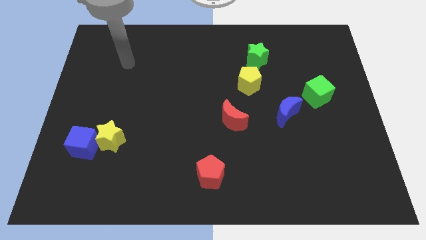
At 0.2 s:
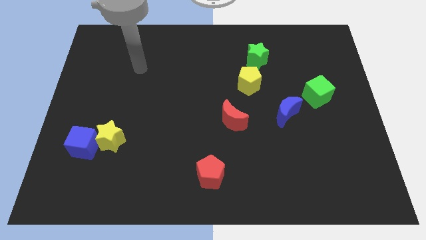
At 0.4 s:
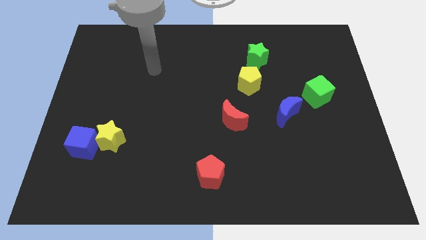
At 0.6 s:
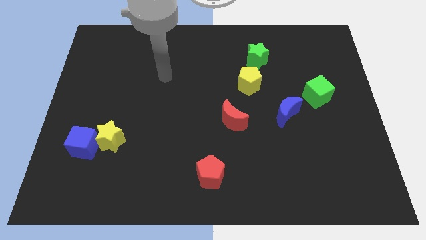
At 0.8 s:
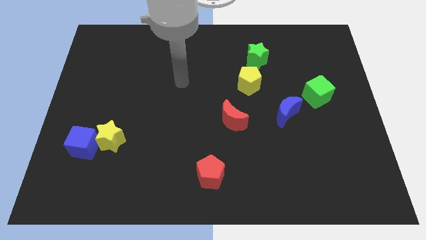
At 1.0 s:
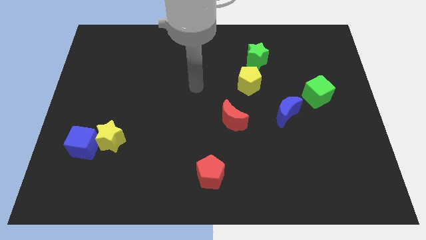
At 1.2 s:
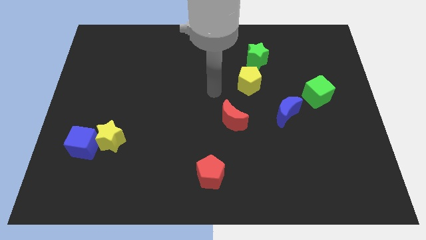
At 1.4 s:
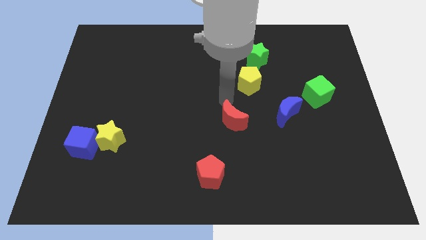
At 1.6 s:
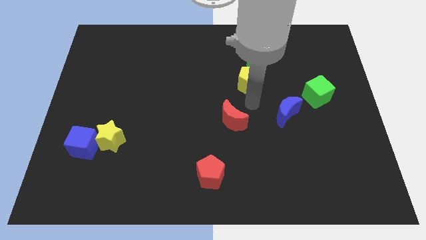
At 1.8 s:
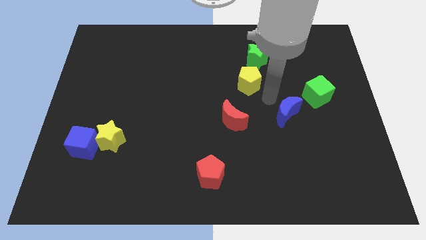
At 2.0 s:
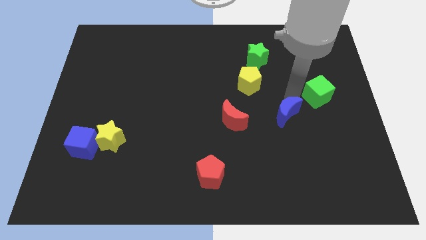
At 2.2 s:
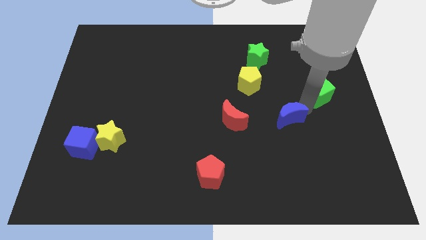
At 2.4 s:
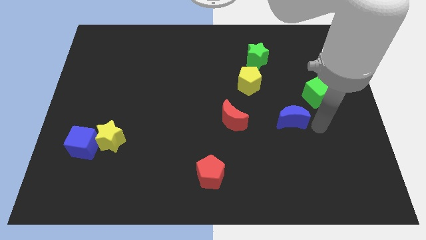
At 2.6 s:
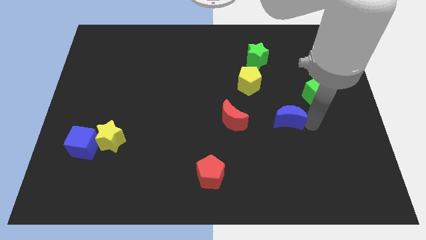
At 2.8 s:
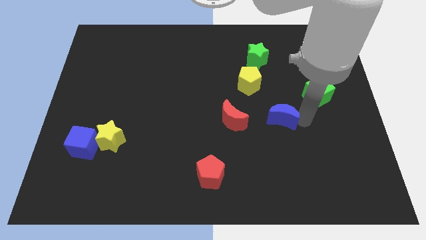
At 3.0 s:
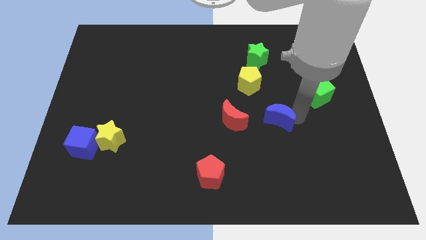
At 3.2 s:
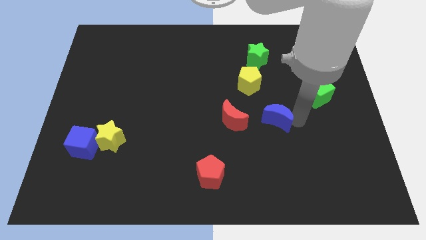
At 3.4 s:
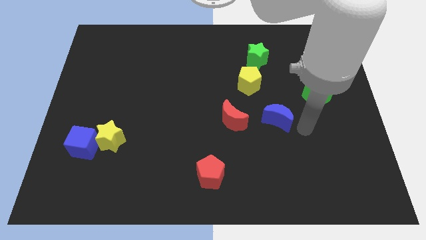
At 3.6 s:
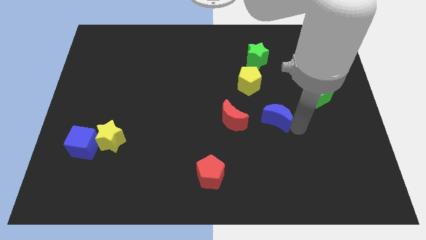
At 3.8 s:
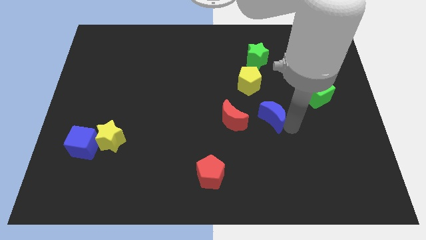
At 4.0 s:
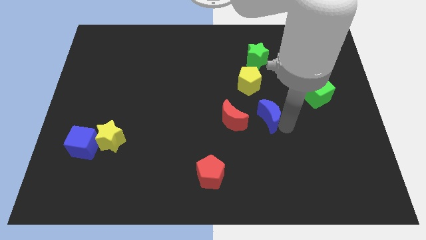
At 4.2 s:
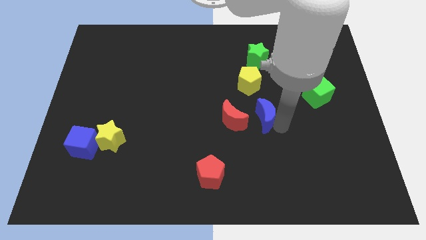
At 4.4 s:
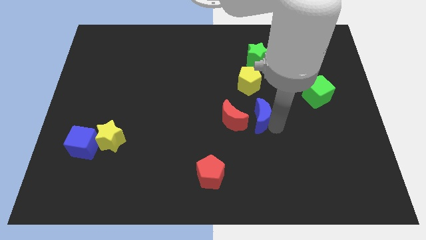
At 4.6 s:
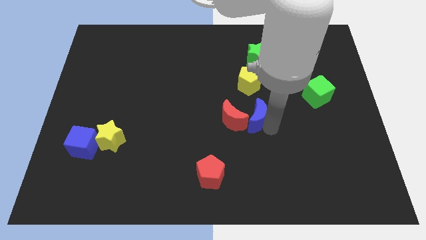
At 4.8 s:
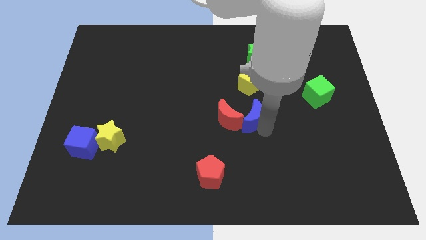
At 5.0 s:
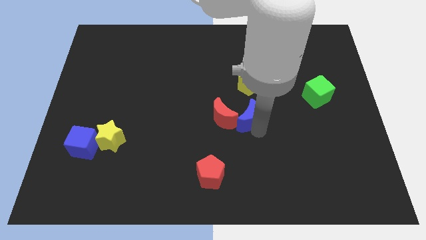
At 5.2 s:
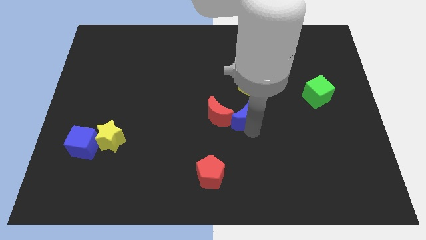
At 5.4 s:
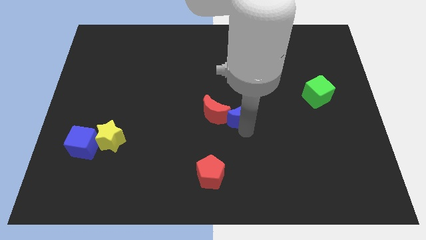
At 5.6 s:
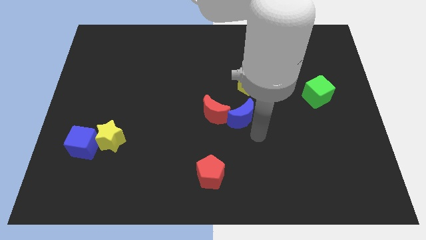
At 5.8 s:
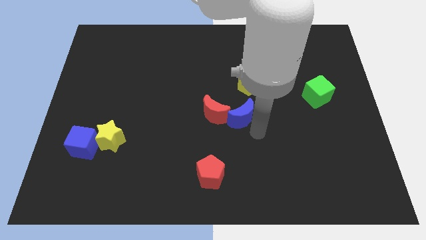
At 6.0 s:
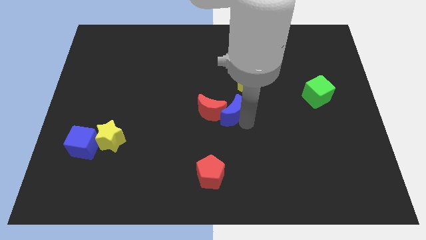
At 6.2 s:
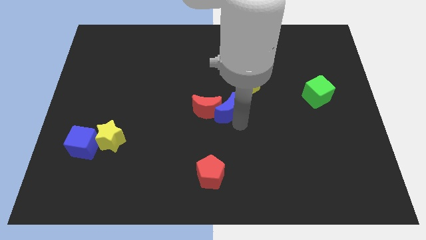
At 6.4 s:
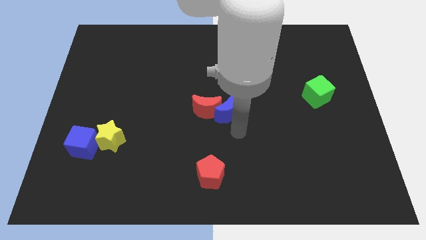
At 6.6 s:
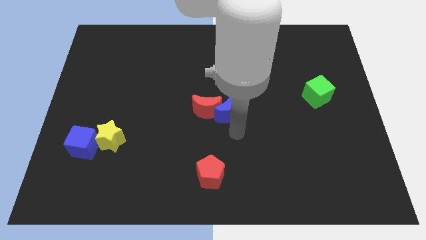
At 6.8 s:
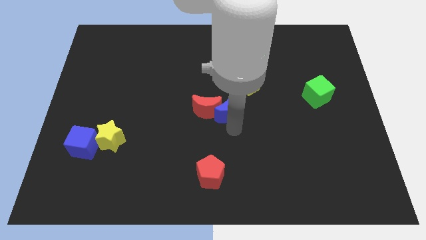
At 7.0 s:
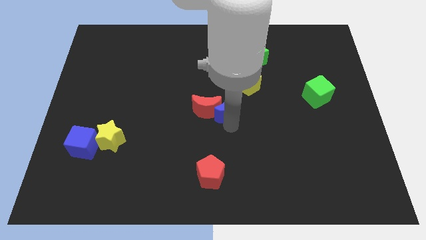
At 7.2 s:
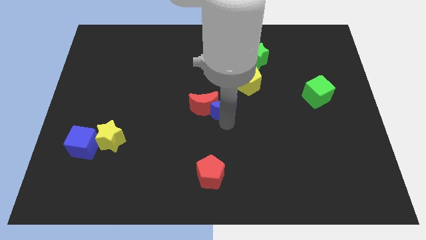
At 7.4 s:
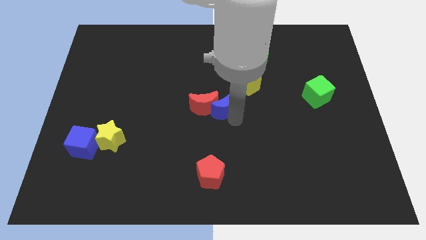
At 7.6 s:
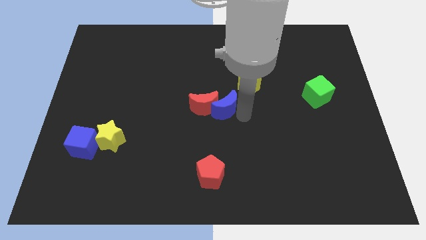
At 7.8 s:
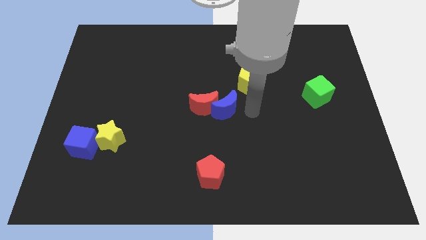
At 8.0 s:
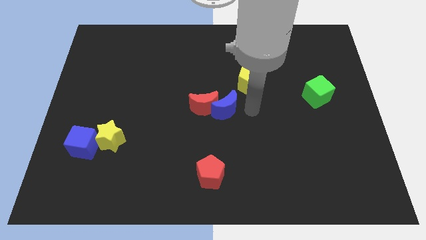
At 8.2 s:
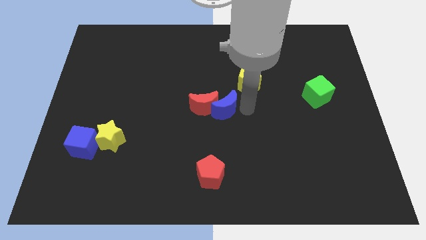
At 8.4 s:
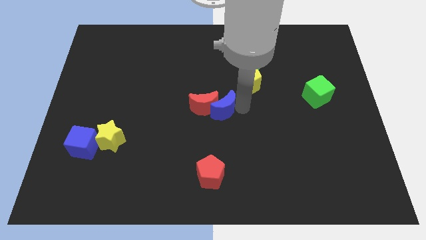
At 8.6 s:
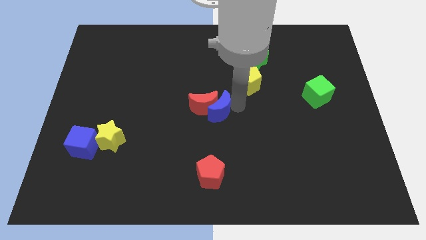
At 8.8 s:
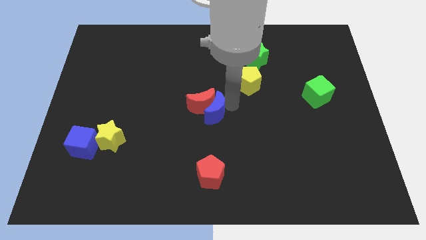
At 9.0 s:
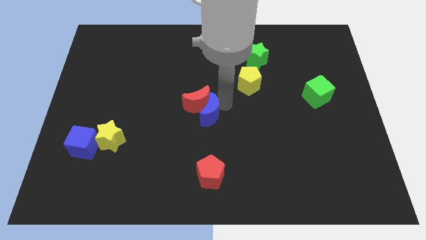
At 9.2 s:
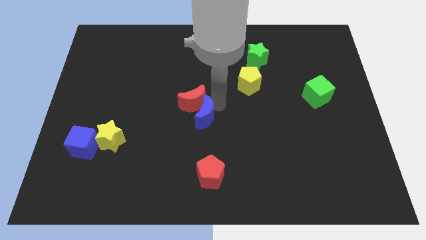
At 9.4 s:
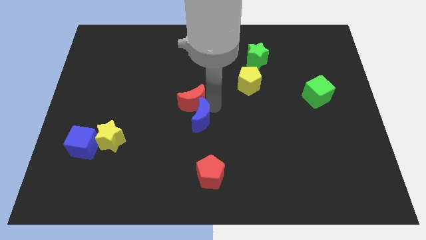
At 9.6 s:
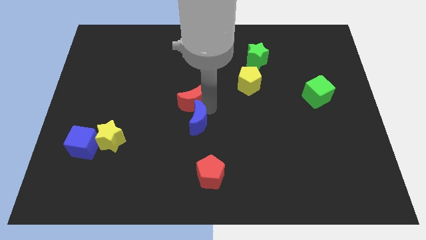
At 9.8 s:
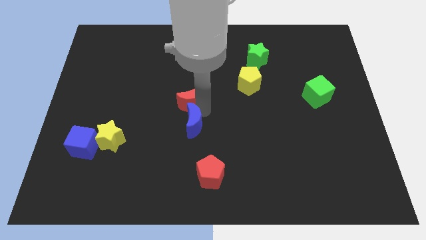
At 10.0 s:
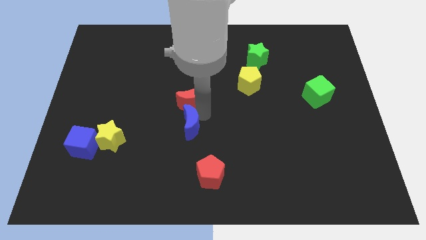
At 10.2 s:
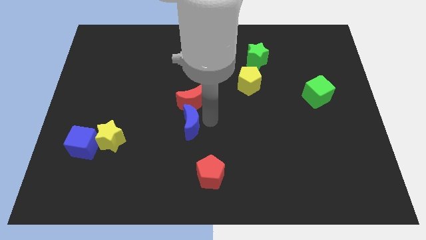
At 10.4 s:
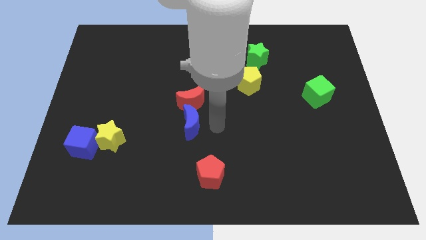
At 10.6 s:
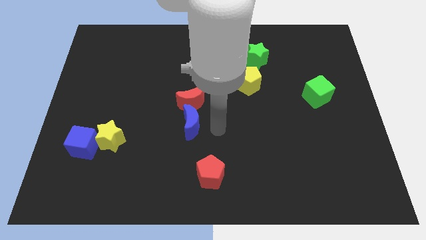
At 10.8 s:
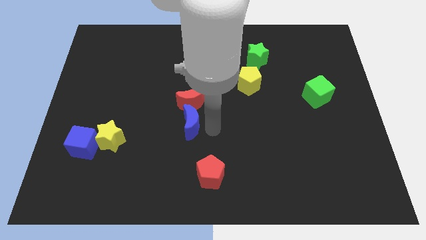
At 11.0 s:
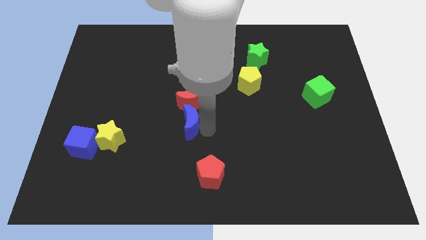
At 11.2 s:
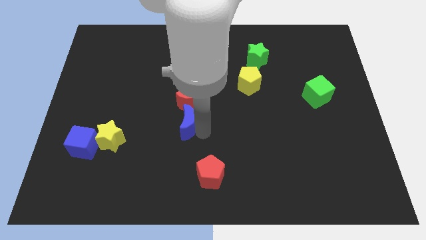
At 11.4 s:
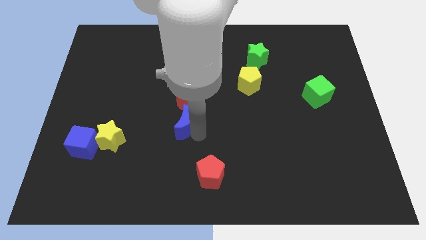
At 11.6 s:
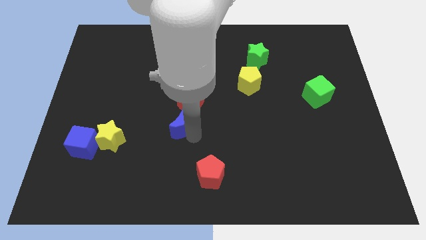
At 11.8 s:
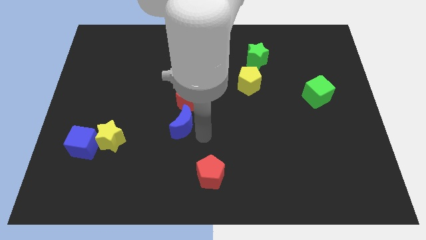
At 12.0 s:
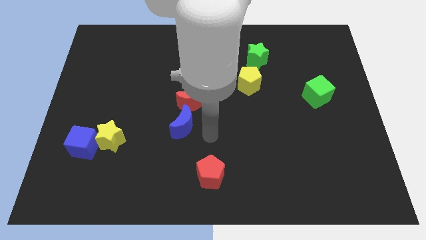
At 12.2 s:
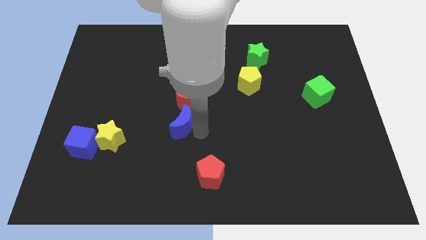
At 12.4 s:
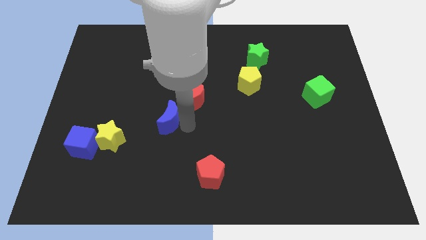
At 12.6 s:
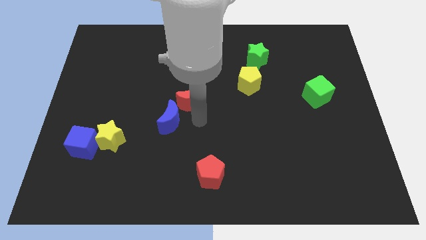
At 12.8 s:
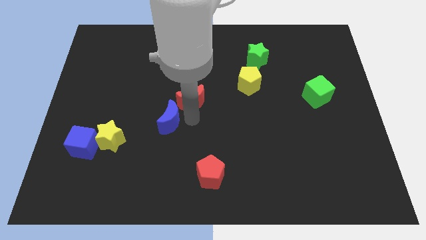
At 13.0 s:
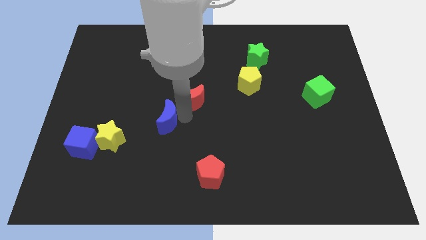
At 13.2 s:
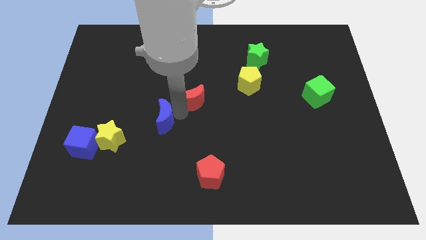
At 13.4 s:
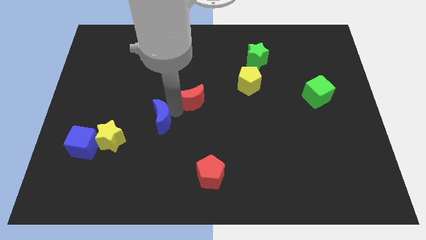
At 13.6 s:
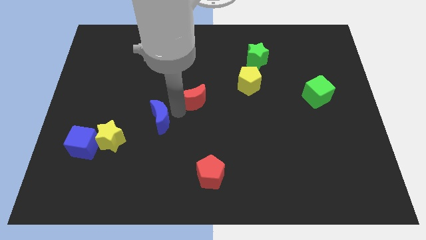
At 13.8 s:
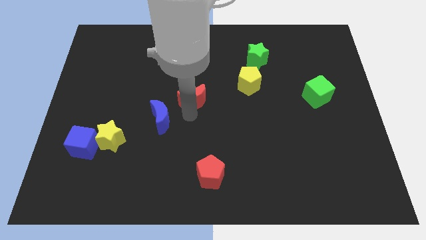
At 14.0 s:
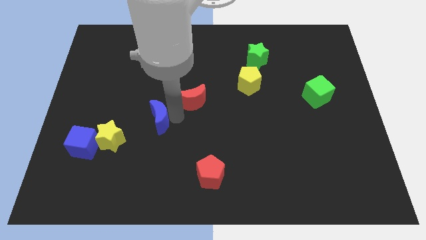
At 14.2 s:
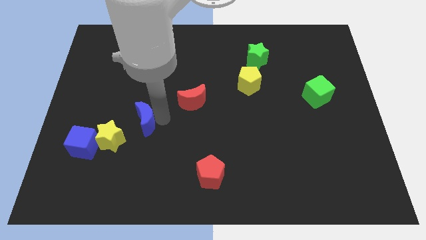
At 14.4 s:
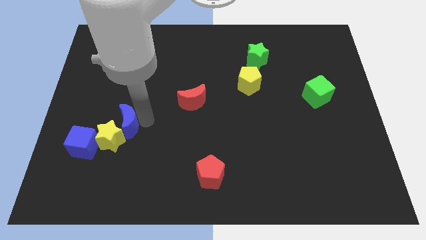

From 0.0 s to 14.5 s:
slide the blue moon to the top right of the blue cube
